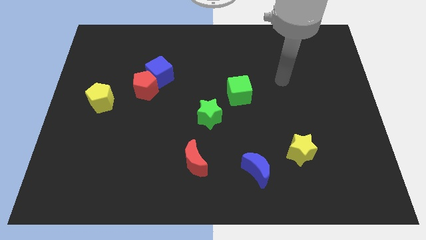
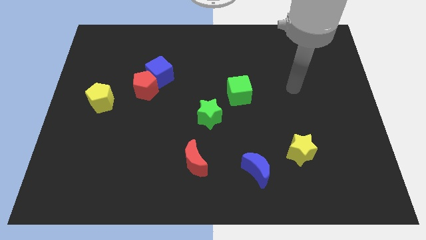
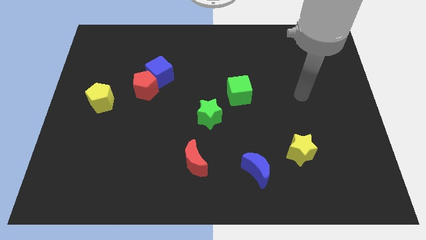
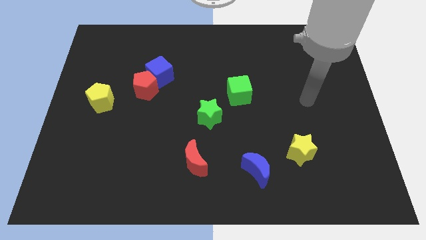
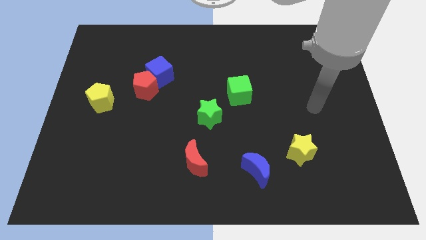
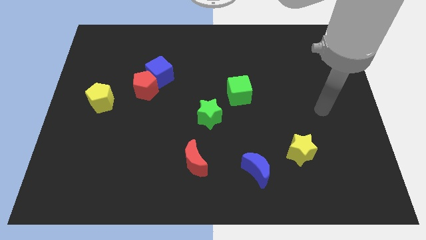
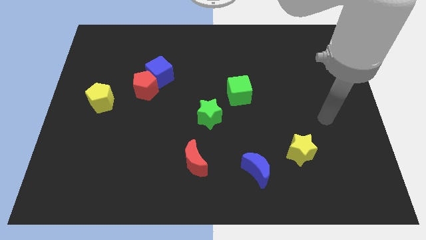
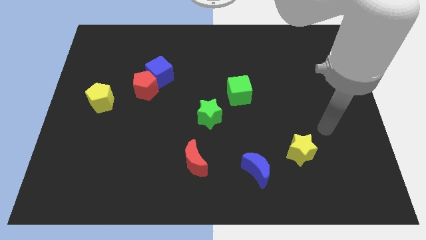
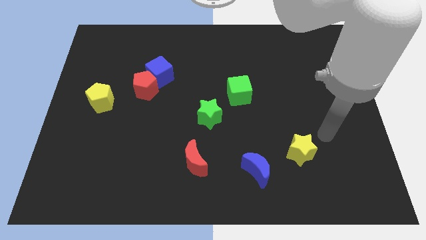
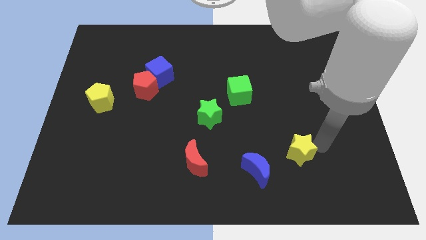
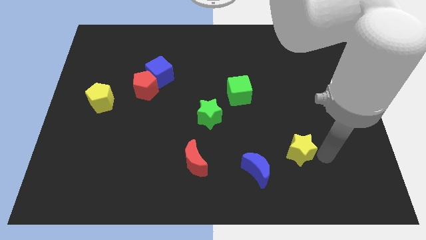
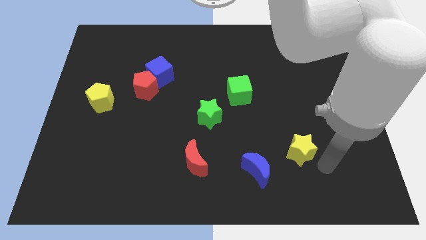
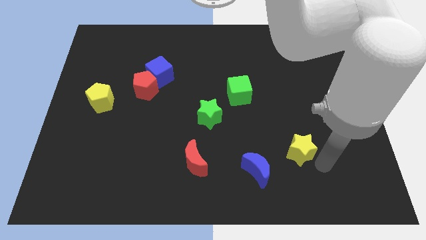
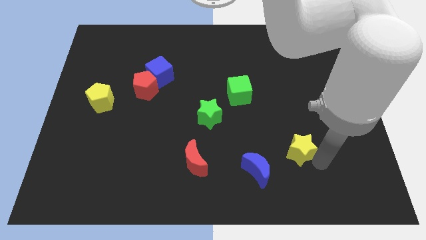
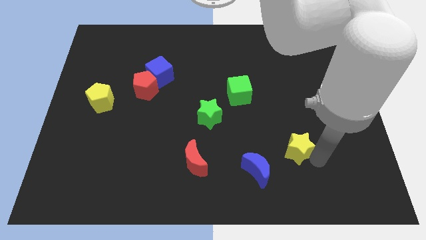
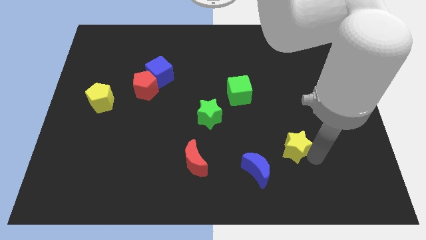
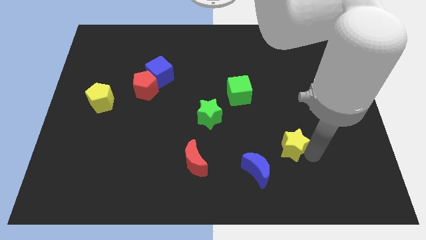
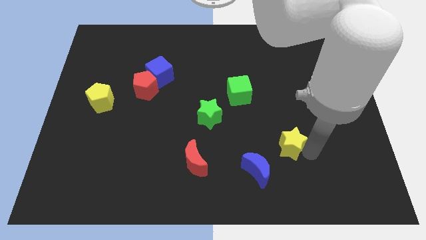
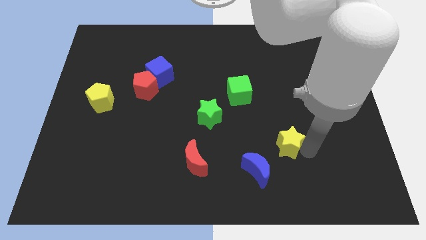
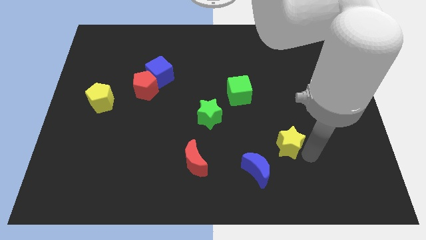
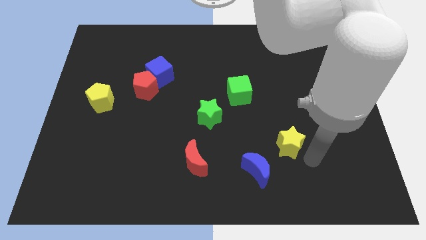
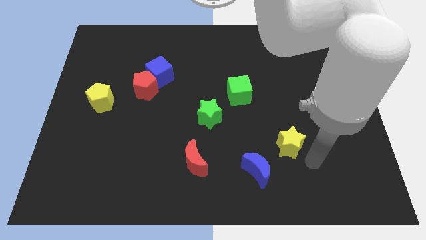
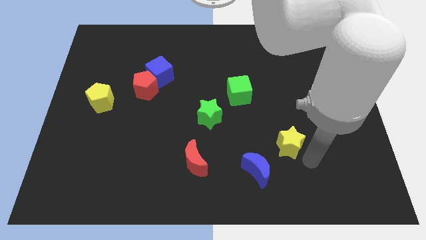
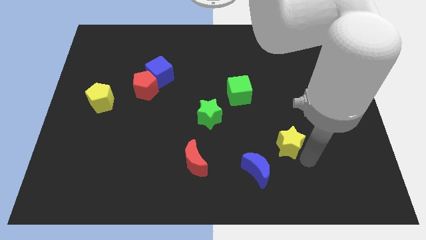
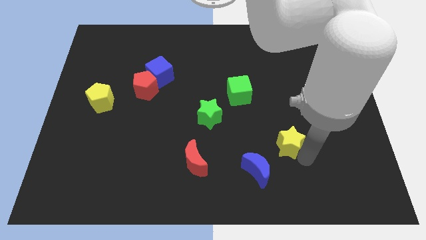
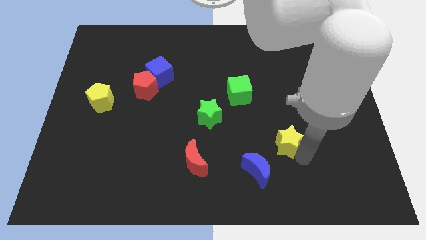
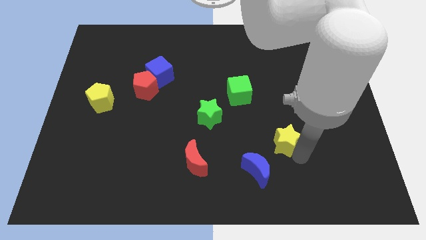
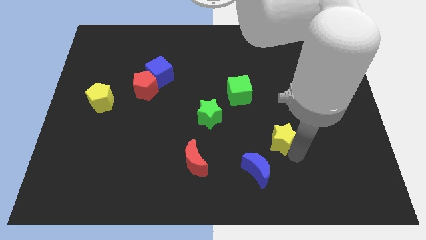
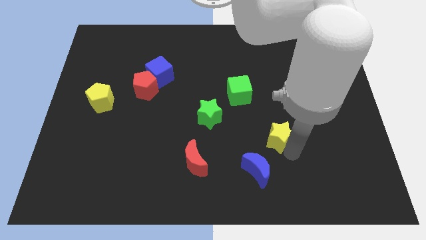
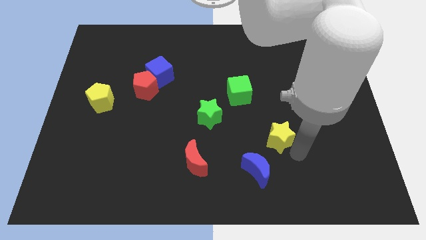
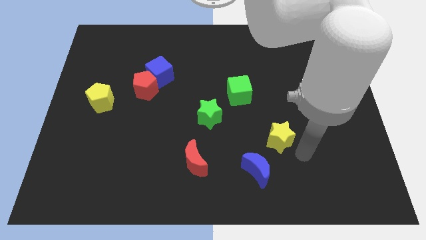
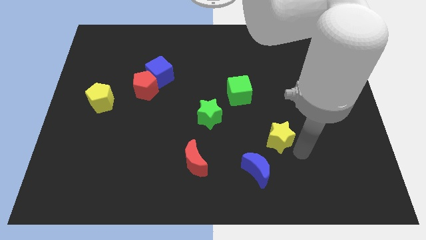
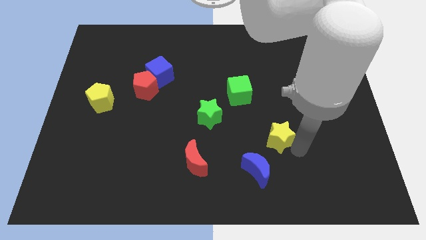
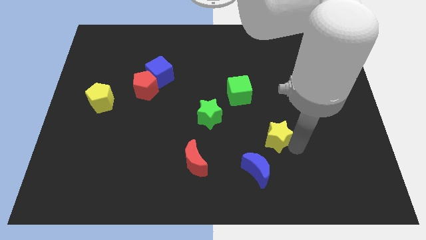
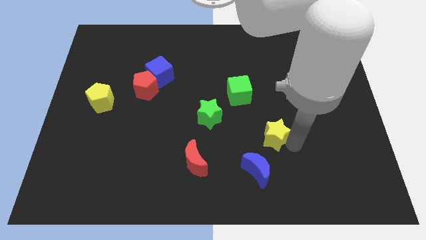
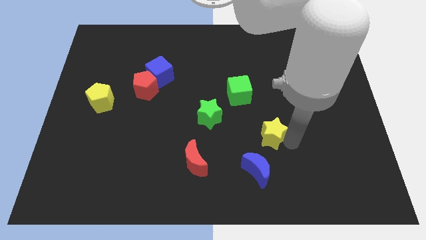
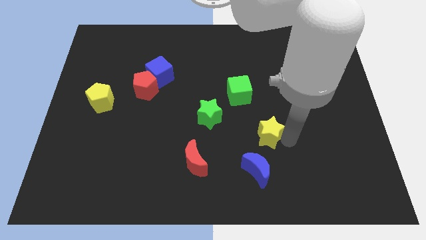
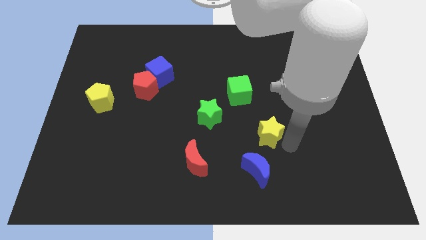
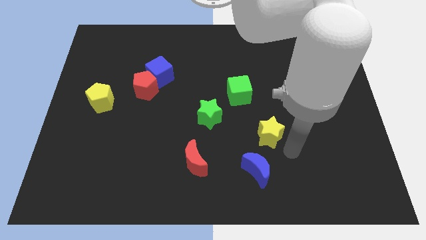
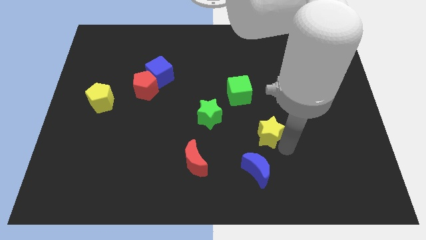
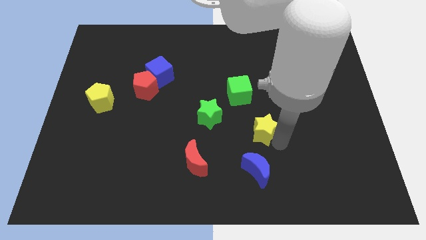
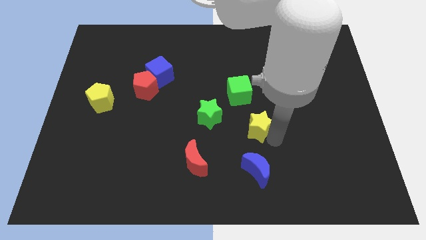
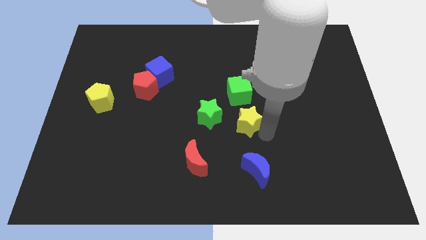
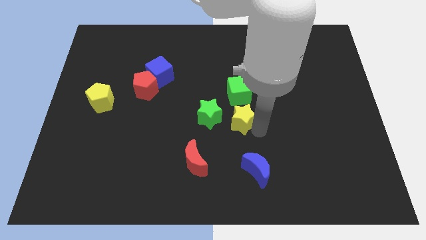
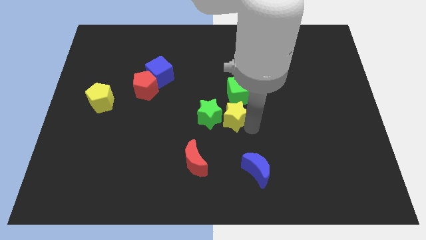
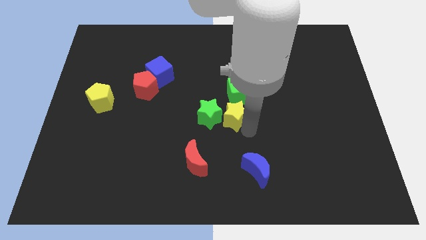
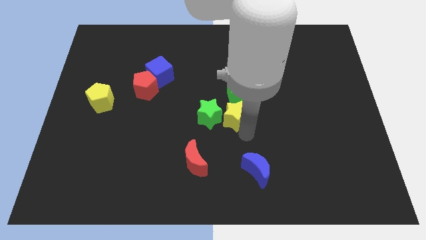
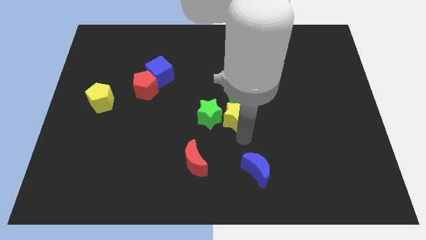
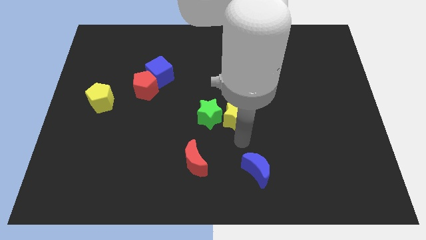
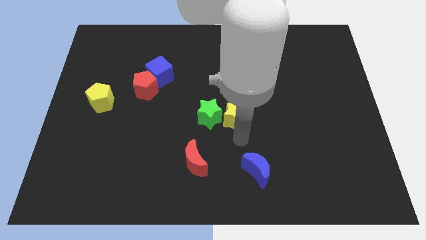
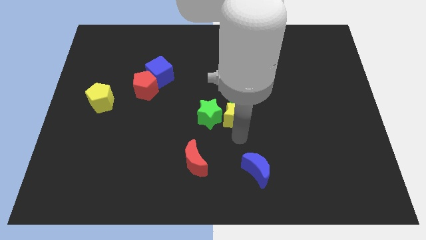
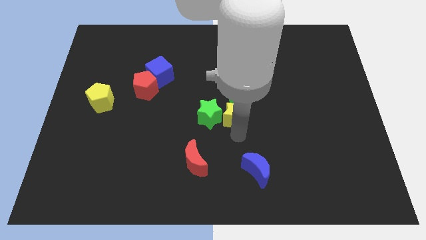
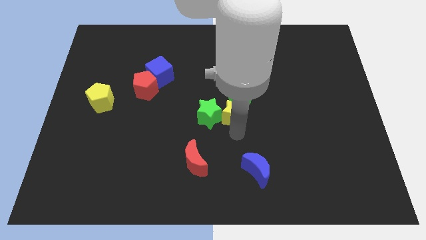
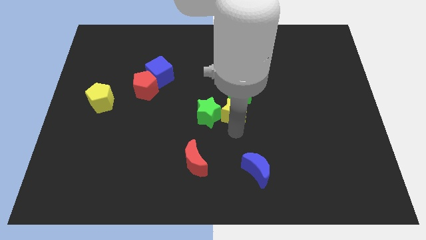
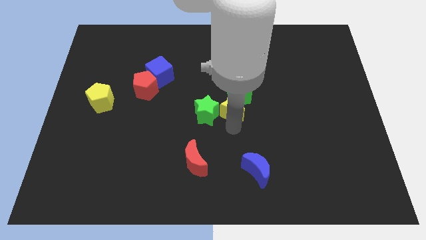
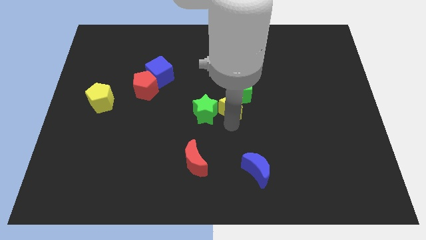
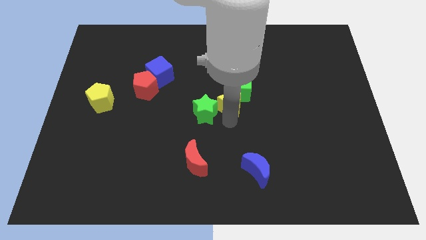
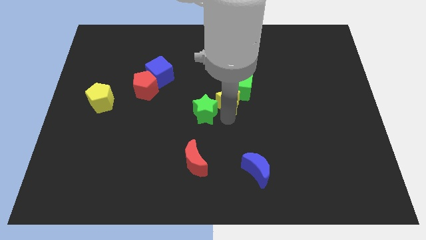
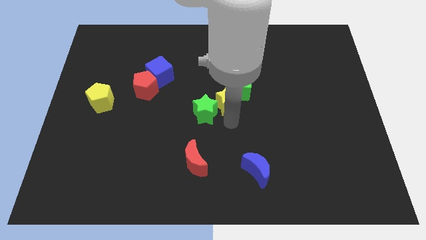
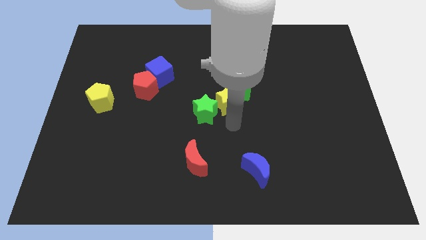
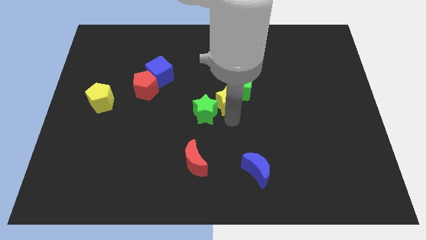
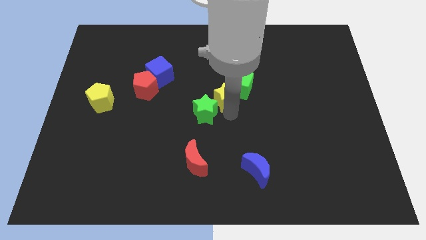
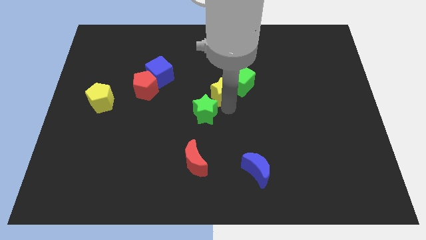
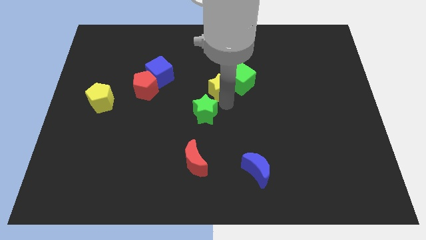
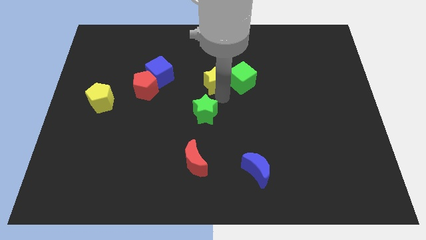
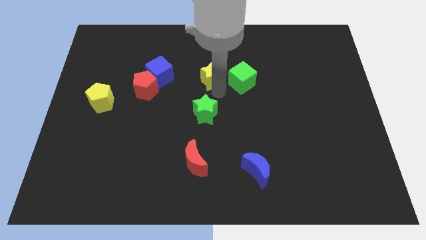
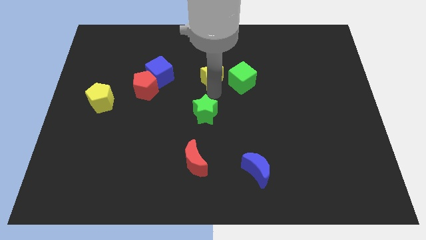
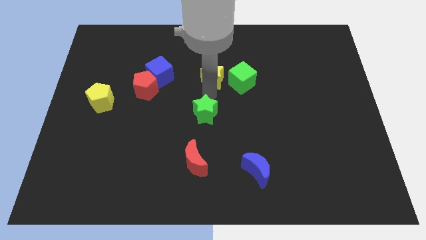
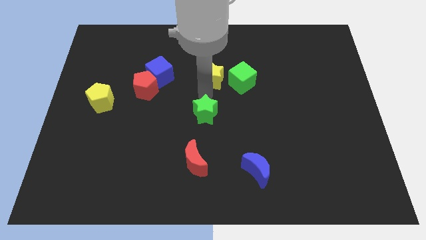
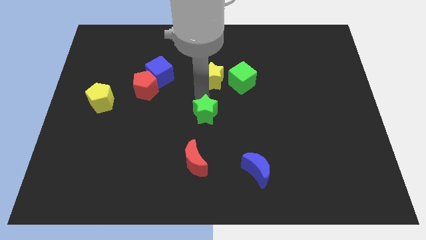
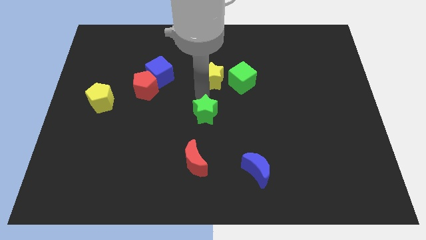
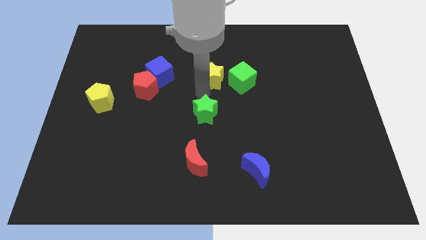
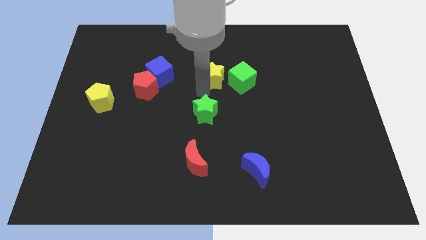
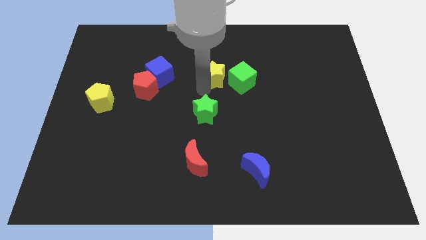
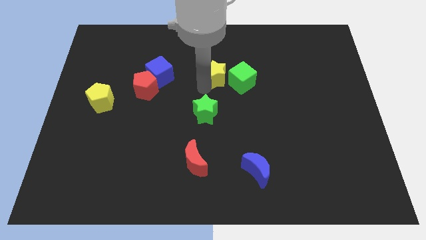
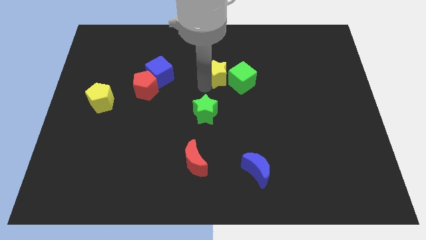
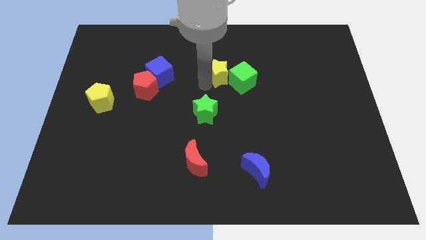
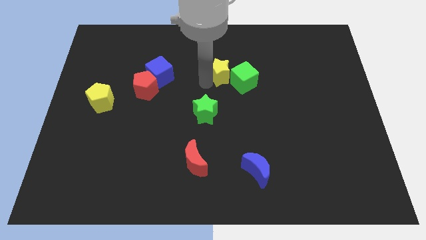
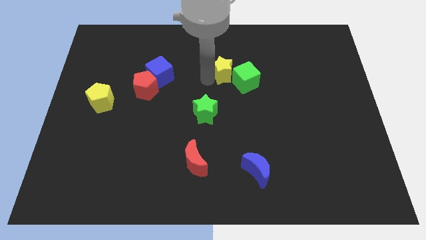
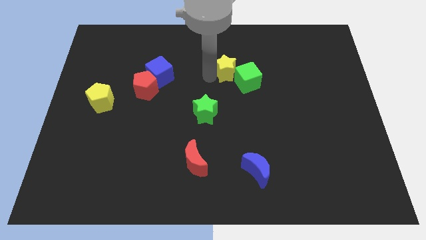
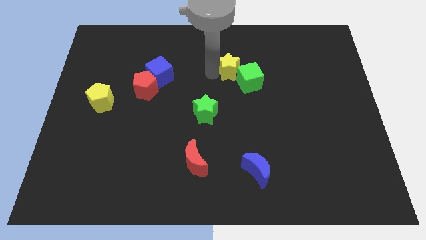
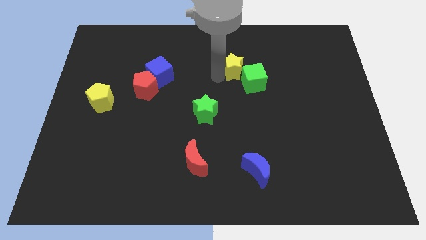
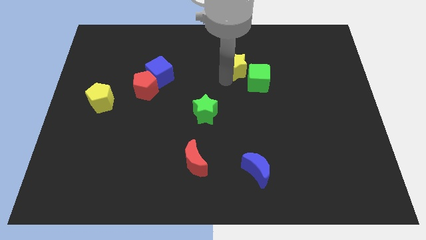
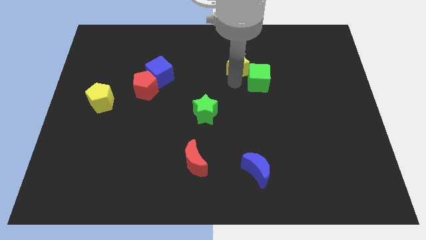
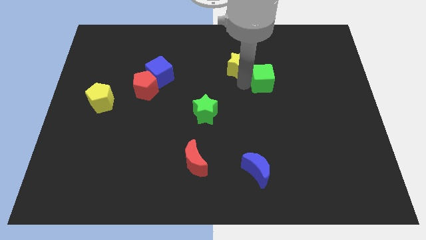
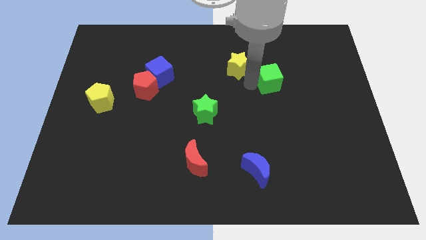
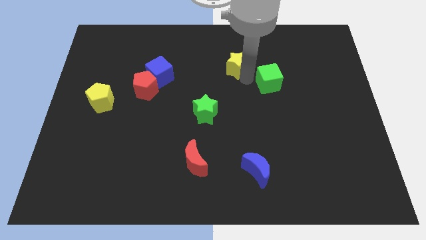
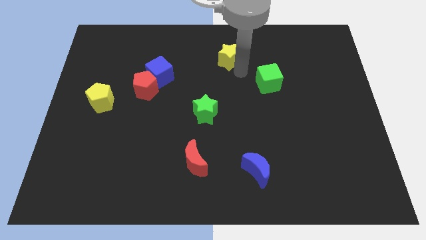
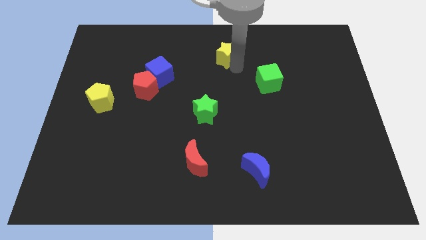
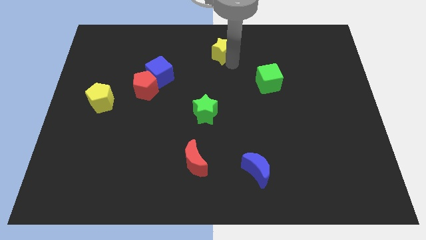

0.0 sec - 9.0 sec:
slide the yellow star to the towards your base
